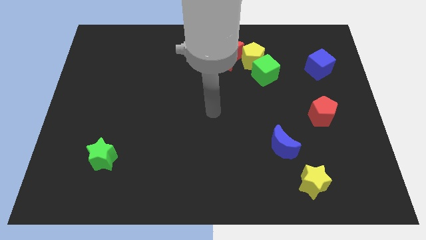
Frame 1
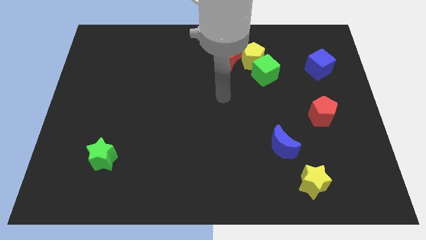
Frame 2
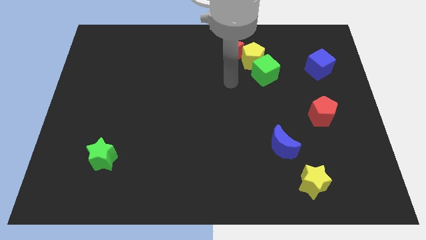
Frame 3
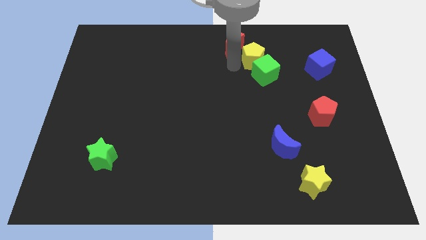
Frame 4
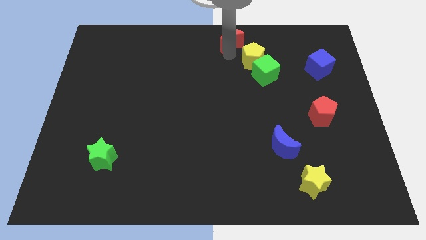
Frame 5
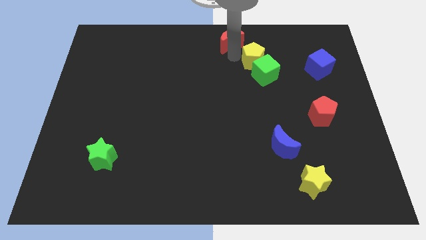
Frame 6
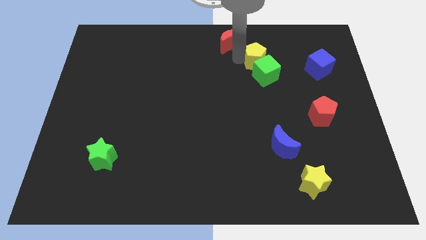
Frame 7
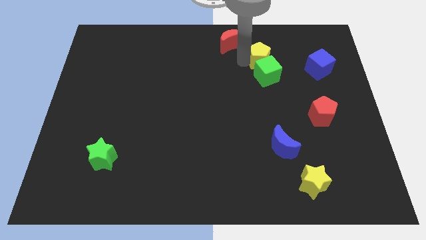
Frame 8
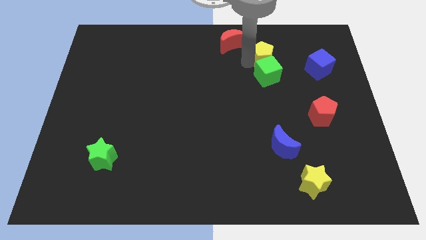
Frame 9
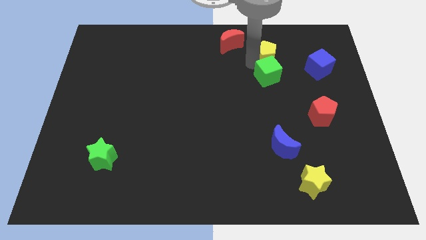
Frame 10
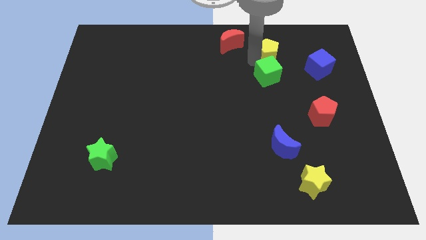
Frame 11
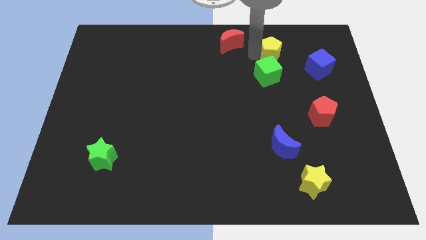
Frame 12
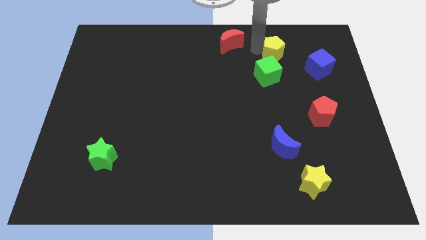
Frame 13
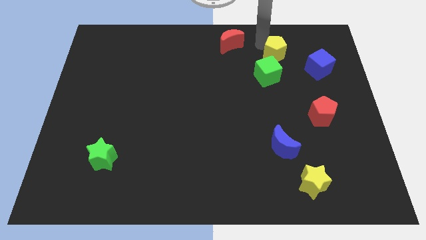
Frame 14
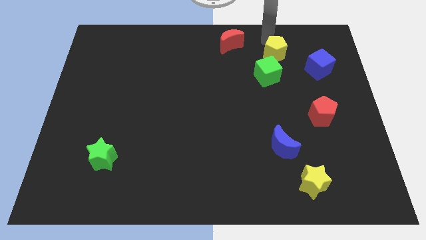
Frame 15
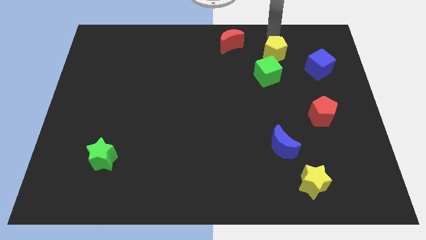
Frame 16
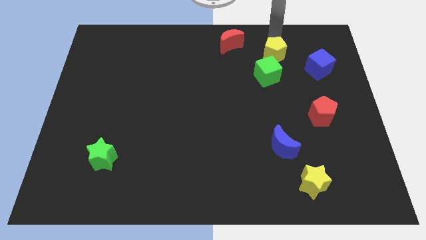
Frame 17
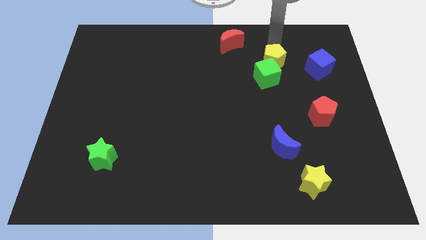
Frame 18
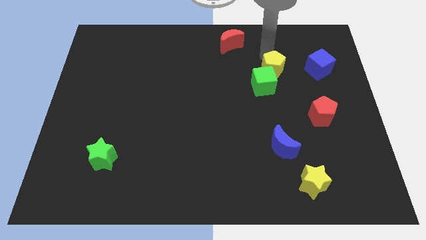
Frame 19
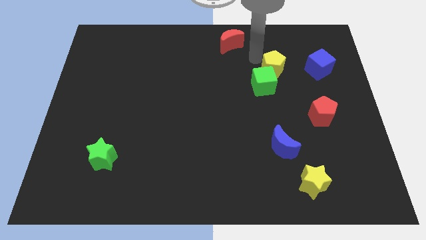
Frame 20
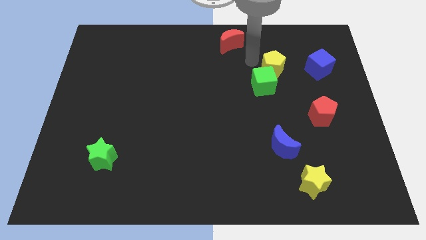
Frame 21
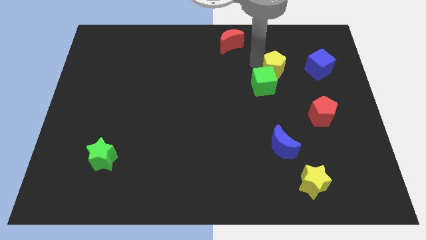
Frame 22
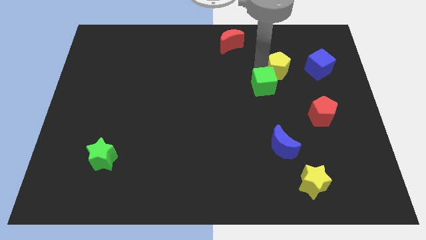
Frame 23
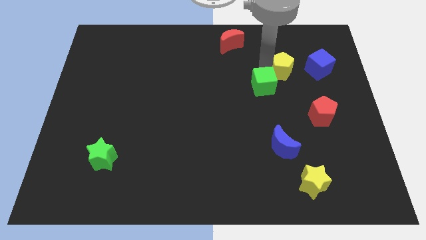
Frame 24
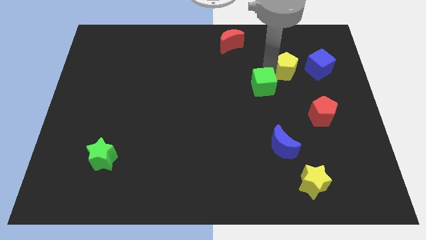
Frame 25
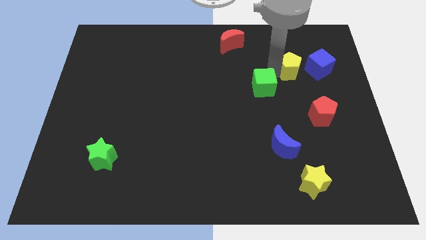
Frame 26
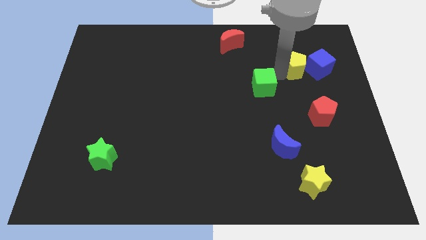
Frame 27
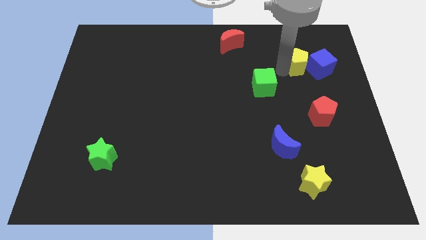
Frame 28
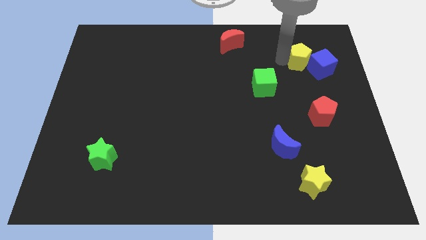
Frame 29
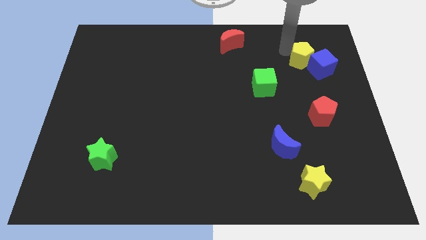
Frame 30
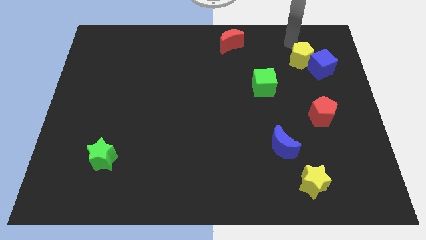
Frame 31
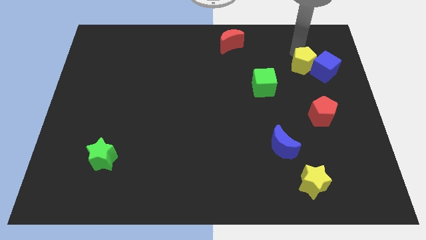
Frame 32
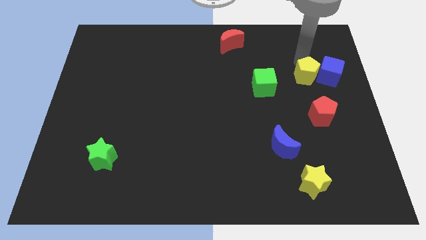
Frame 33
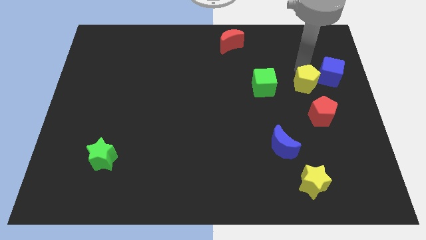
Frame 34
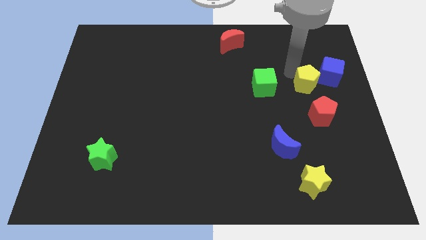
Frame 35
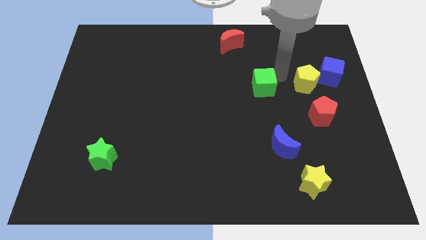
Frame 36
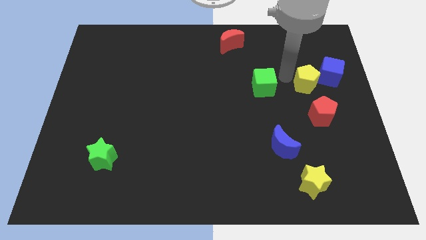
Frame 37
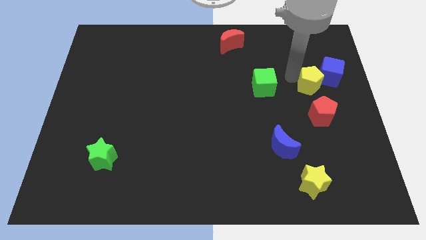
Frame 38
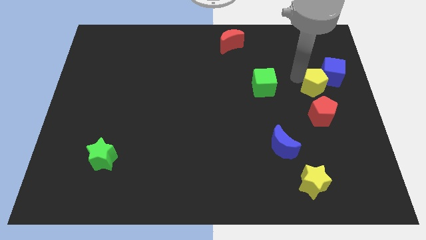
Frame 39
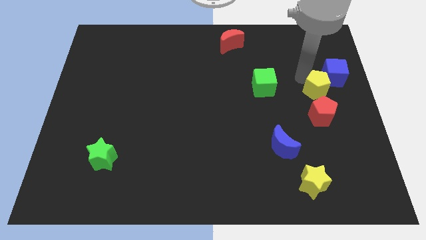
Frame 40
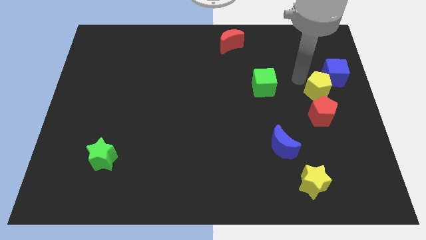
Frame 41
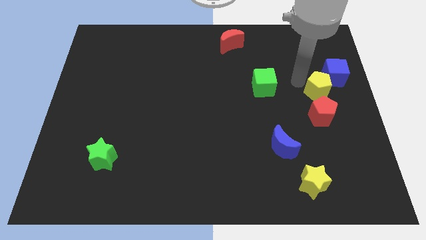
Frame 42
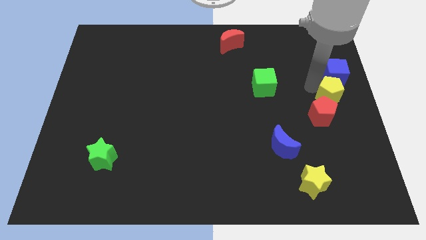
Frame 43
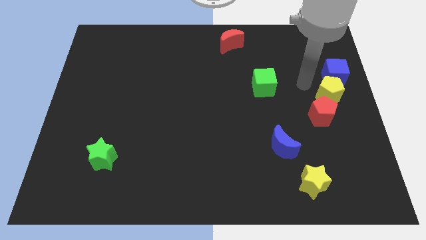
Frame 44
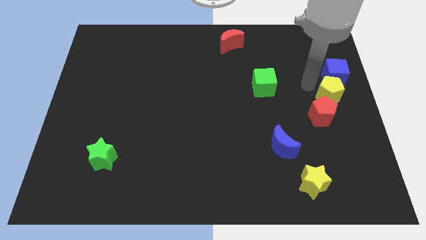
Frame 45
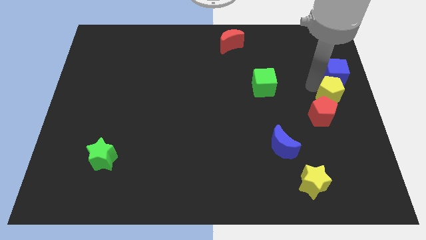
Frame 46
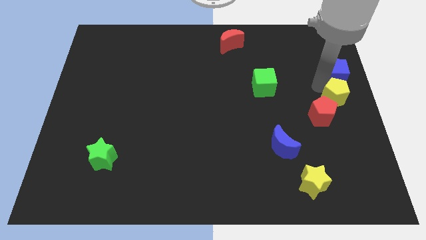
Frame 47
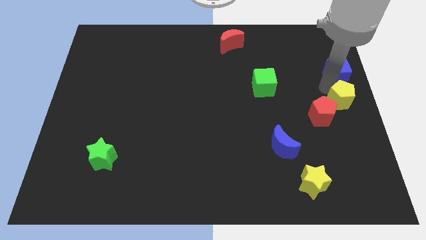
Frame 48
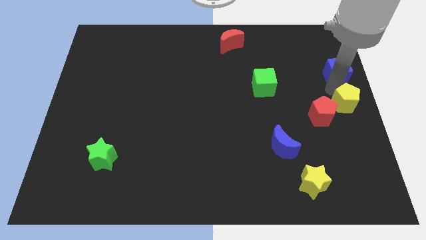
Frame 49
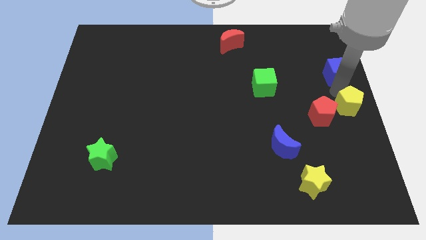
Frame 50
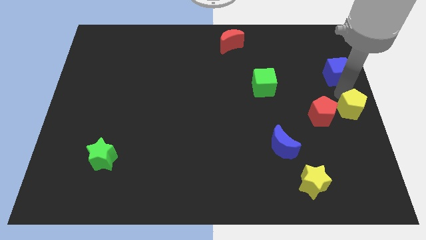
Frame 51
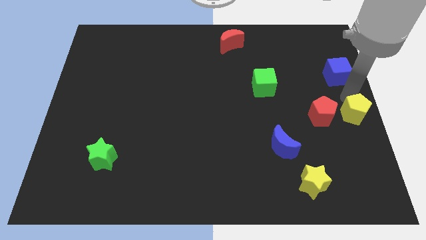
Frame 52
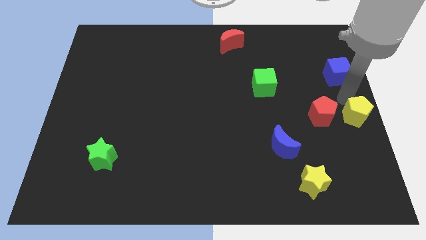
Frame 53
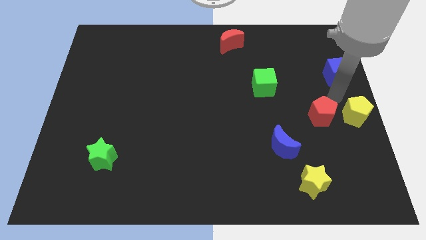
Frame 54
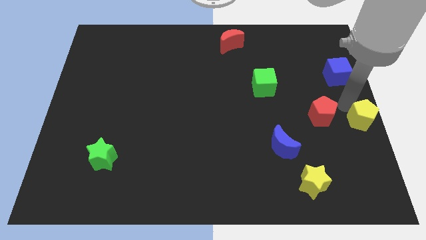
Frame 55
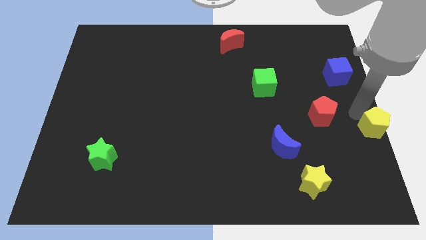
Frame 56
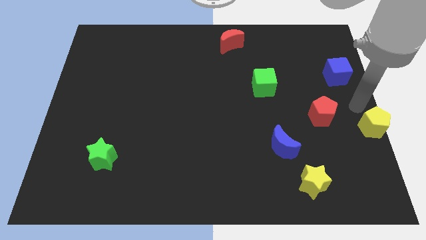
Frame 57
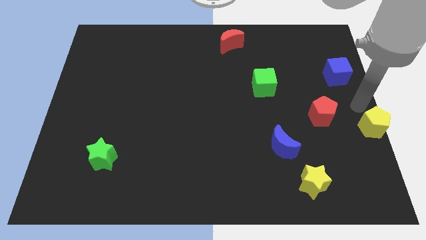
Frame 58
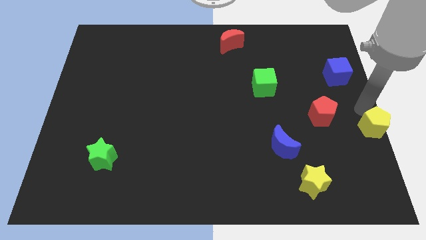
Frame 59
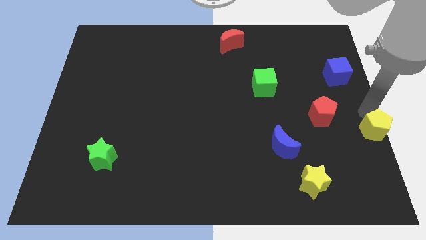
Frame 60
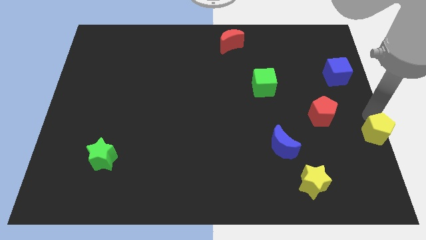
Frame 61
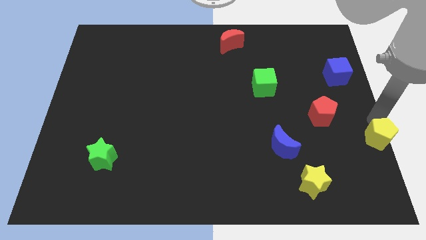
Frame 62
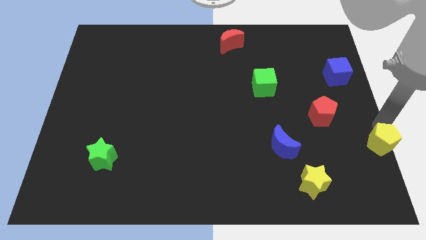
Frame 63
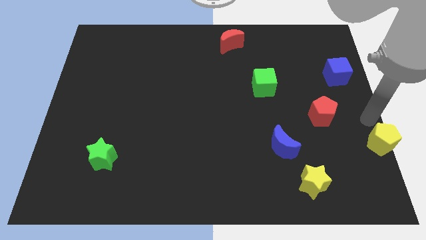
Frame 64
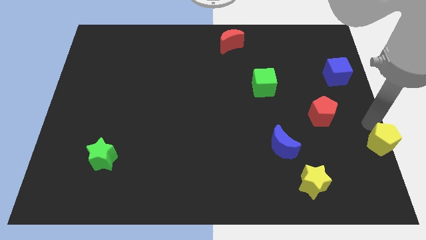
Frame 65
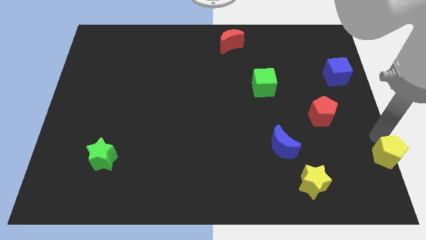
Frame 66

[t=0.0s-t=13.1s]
slide the yellow pentagon to the bottom right corner

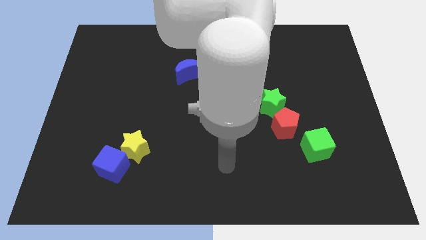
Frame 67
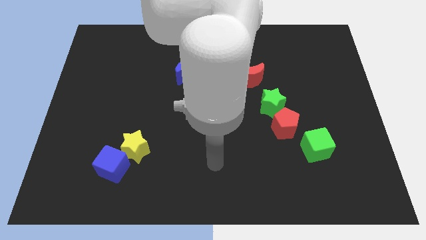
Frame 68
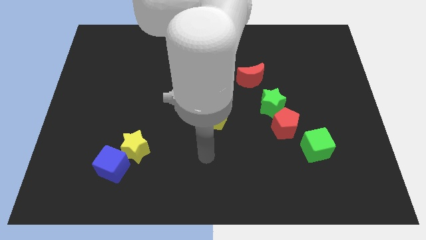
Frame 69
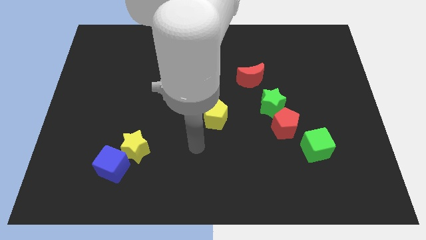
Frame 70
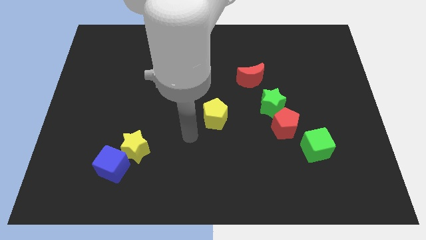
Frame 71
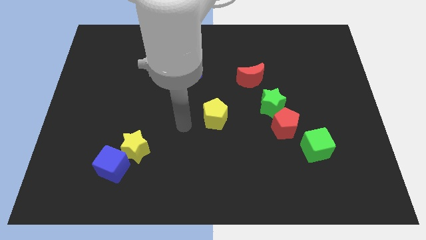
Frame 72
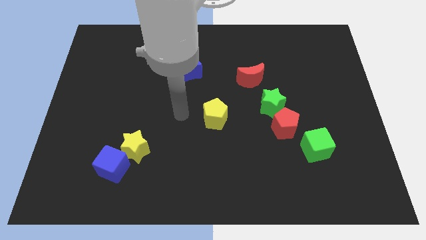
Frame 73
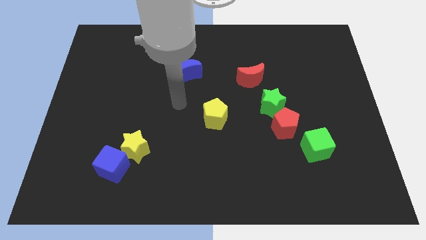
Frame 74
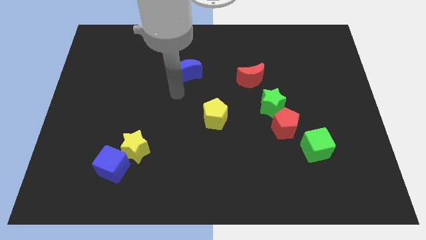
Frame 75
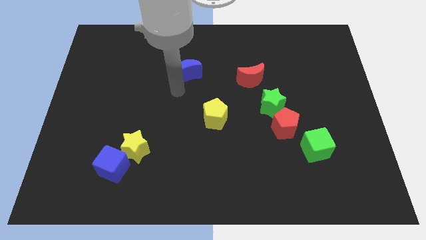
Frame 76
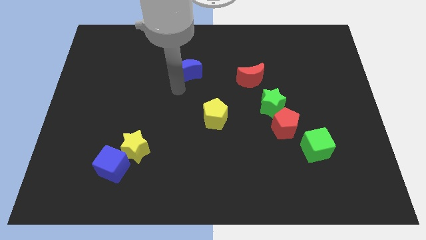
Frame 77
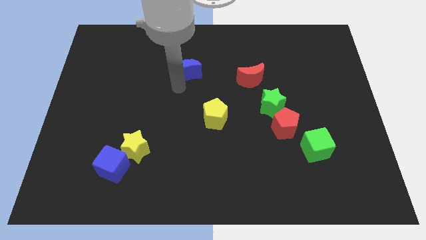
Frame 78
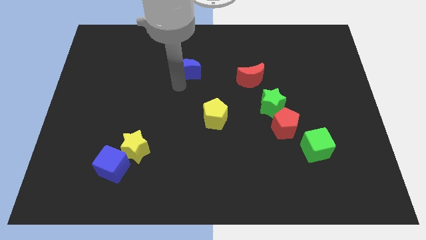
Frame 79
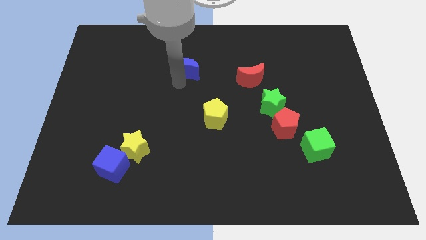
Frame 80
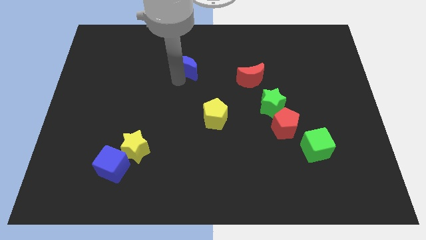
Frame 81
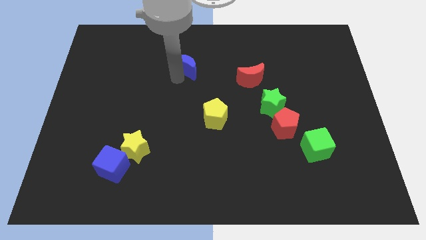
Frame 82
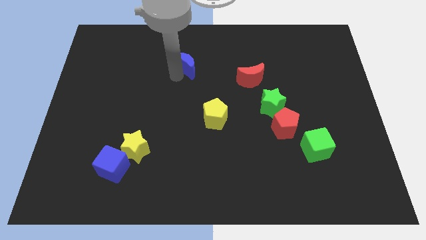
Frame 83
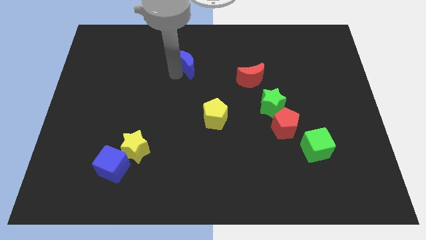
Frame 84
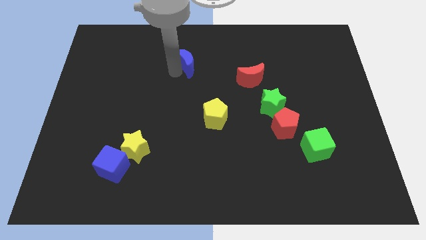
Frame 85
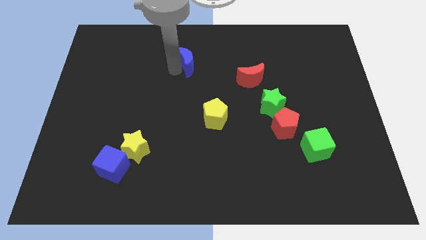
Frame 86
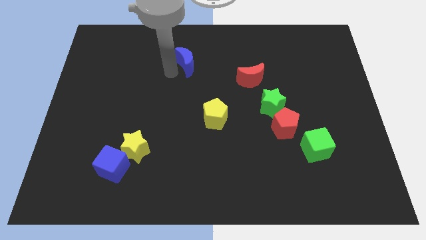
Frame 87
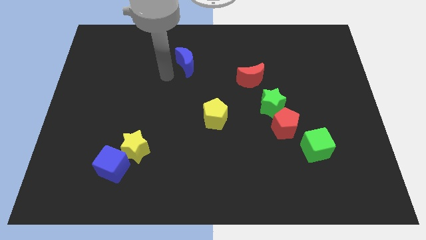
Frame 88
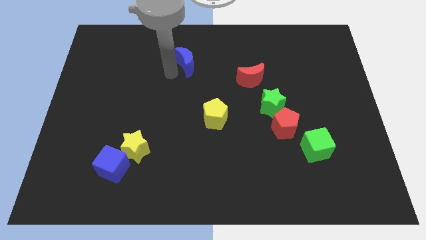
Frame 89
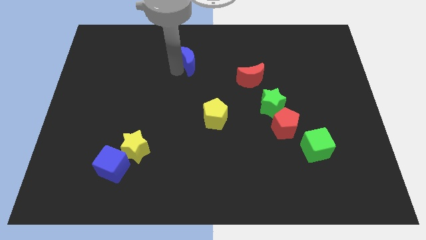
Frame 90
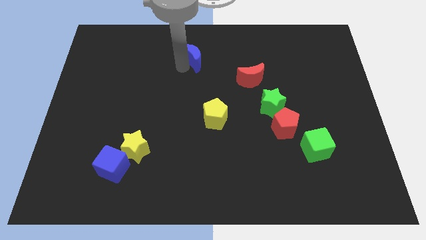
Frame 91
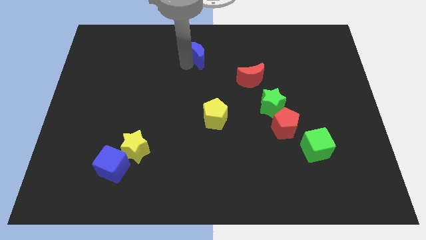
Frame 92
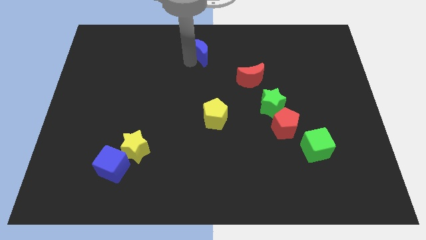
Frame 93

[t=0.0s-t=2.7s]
push the blue moon to the top side
